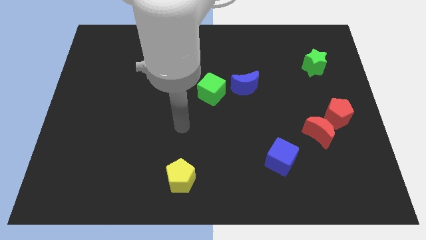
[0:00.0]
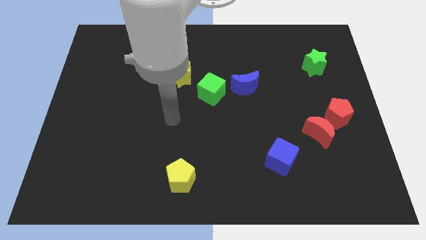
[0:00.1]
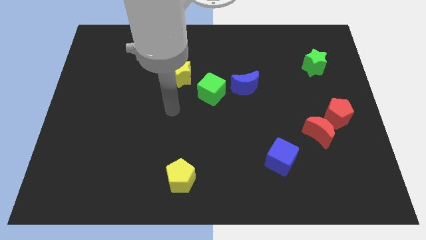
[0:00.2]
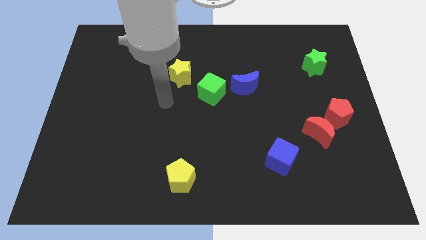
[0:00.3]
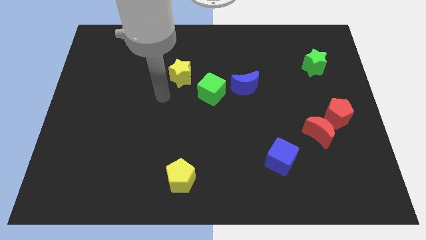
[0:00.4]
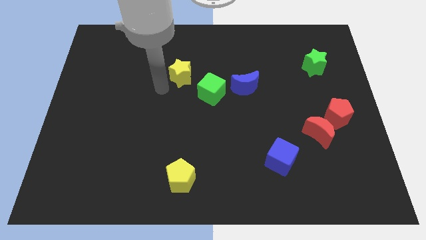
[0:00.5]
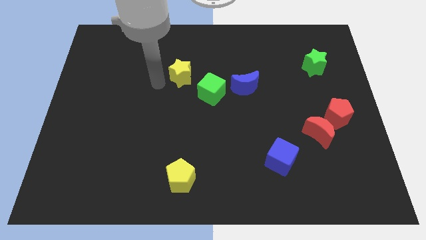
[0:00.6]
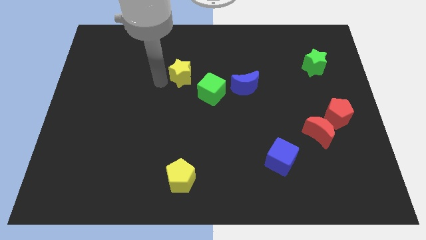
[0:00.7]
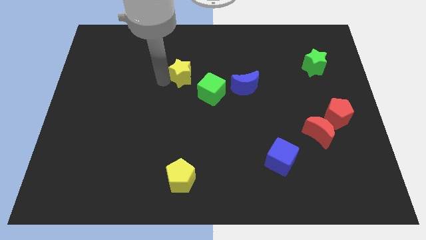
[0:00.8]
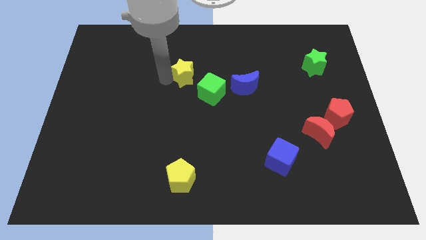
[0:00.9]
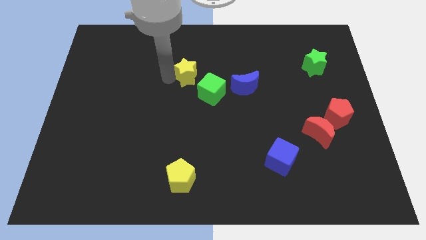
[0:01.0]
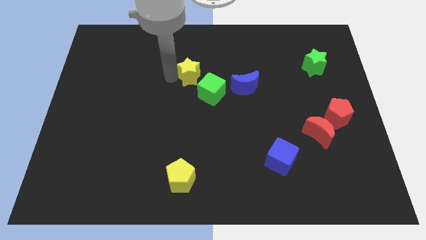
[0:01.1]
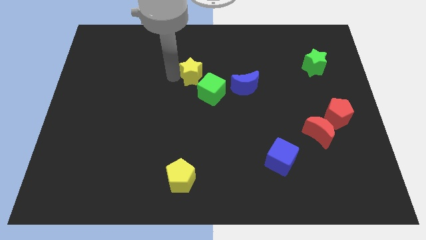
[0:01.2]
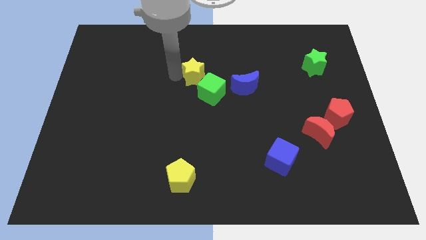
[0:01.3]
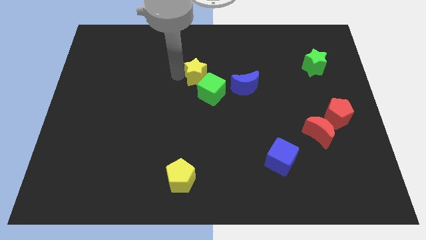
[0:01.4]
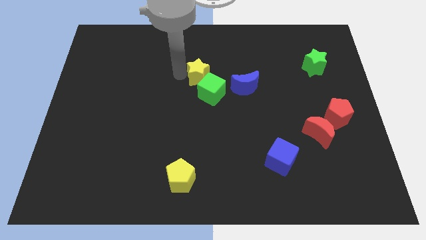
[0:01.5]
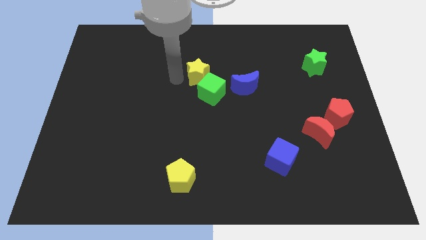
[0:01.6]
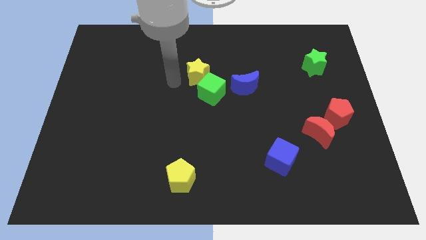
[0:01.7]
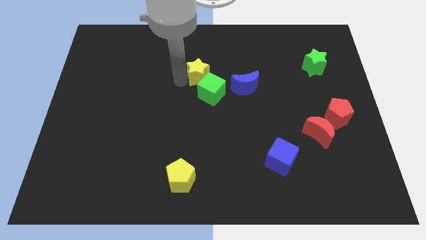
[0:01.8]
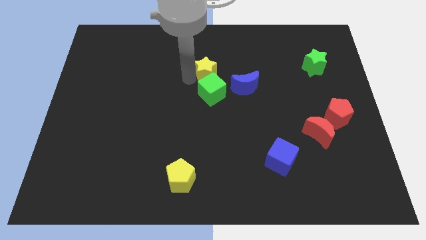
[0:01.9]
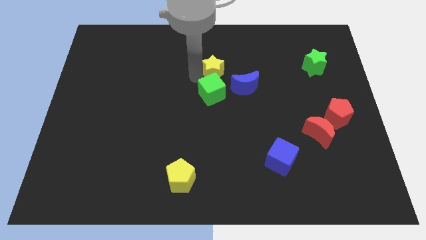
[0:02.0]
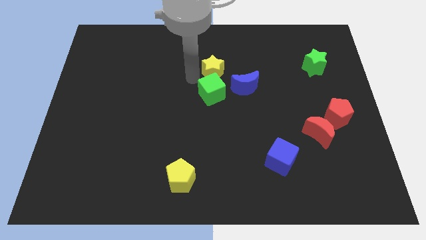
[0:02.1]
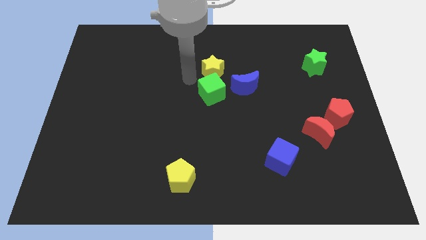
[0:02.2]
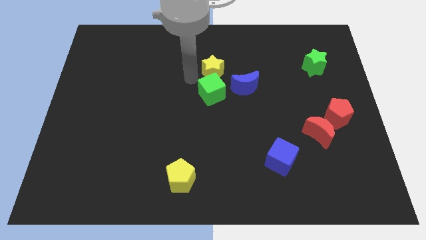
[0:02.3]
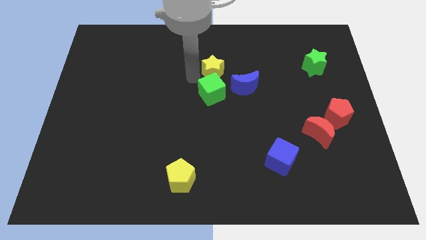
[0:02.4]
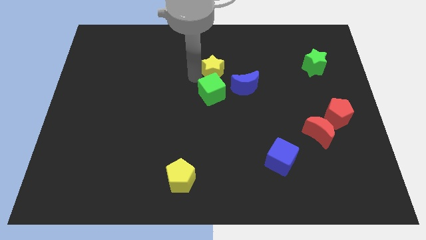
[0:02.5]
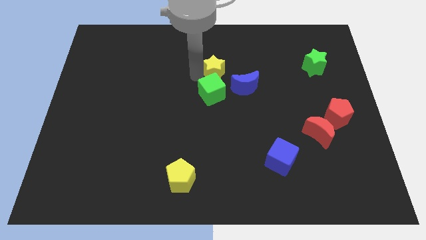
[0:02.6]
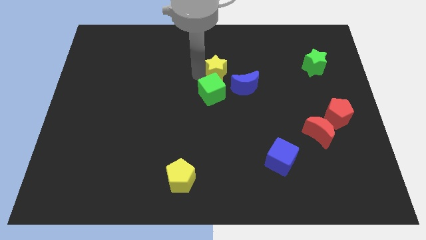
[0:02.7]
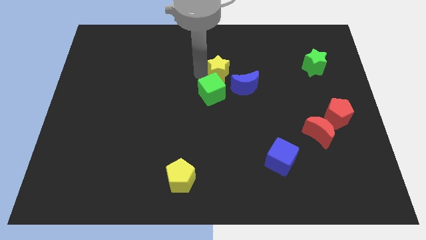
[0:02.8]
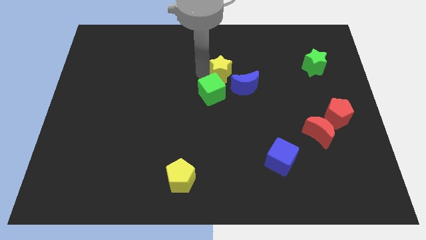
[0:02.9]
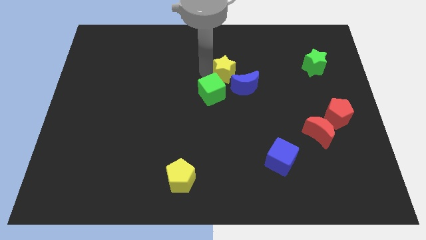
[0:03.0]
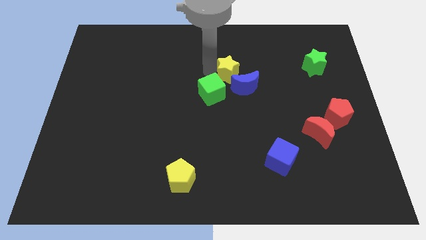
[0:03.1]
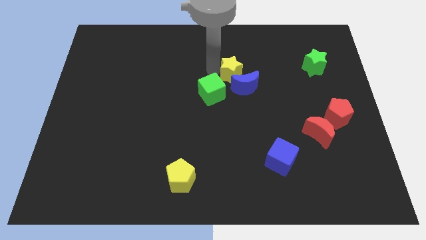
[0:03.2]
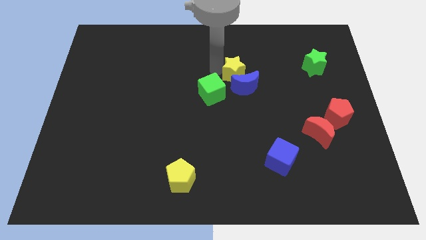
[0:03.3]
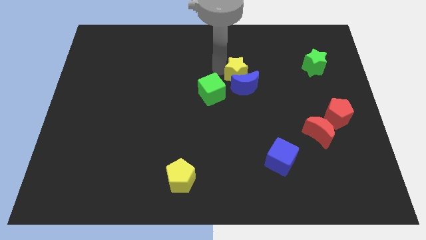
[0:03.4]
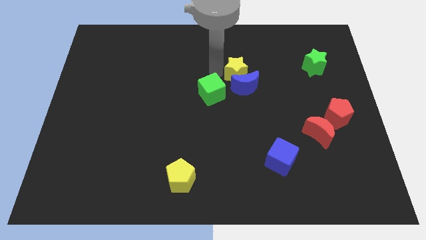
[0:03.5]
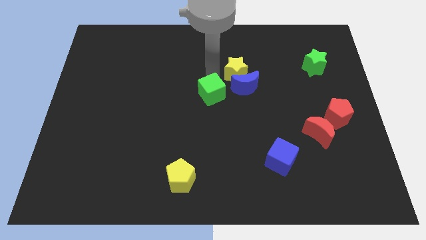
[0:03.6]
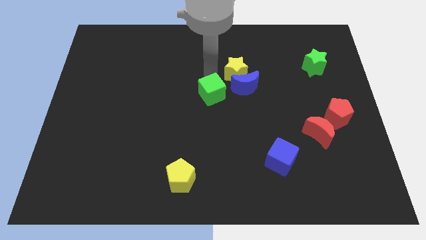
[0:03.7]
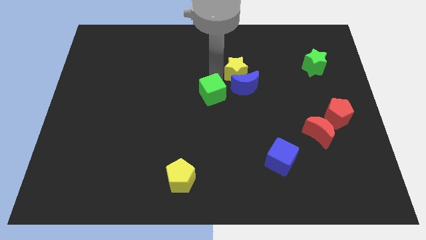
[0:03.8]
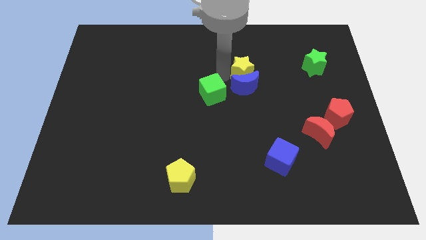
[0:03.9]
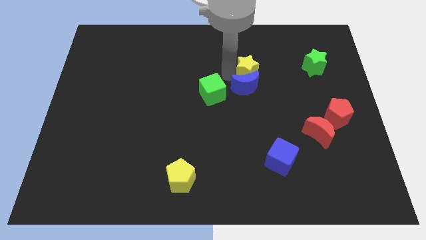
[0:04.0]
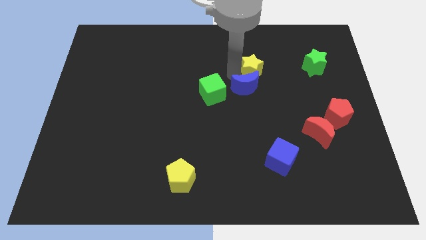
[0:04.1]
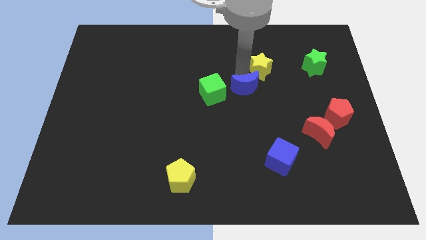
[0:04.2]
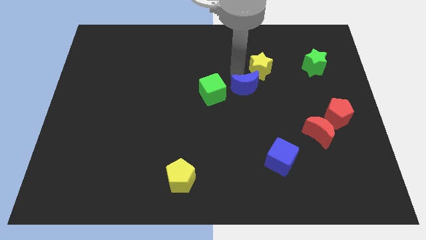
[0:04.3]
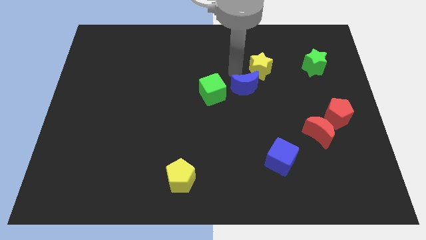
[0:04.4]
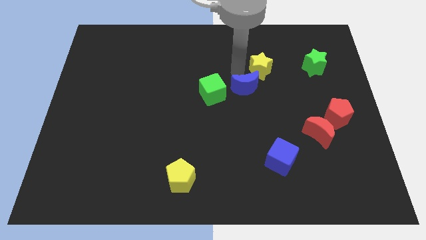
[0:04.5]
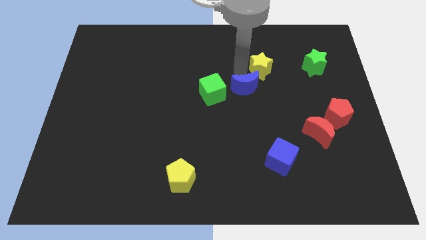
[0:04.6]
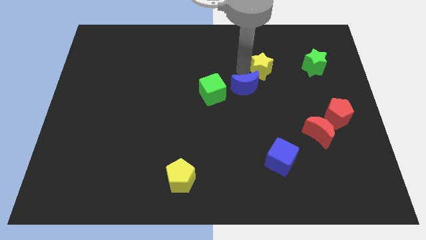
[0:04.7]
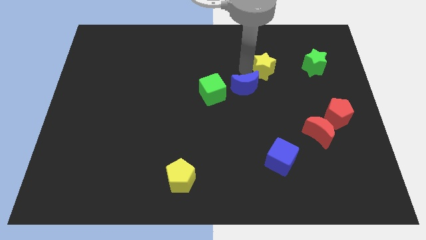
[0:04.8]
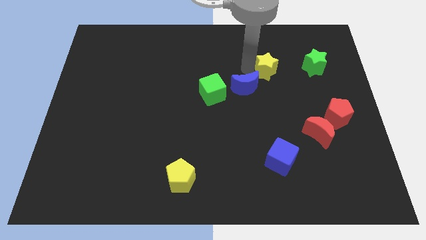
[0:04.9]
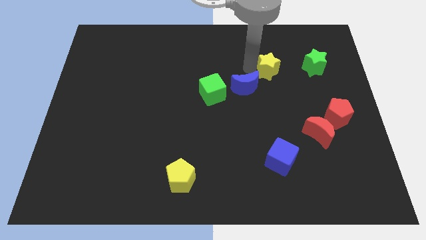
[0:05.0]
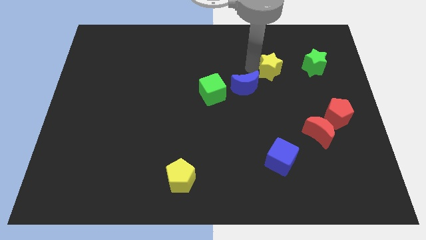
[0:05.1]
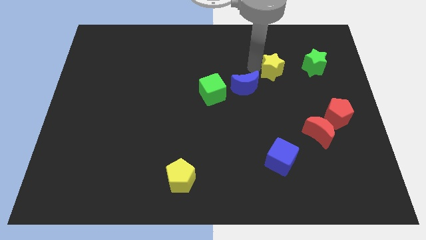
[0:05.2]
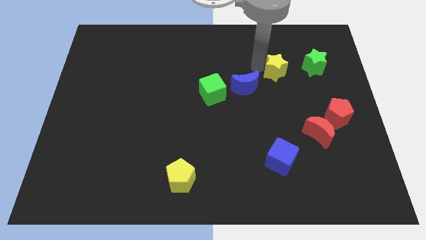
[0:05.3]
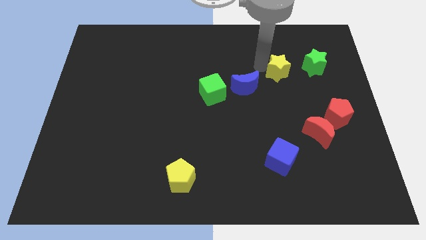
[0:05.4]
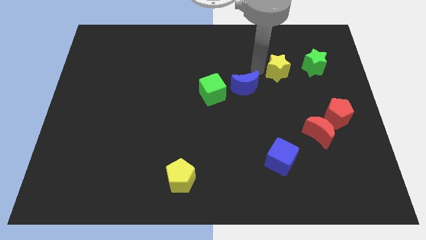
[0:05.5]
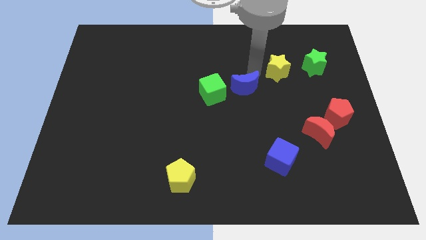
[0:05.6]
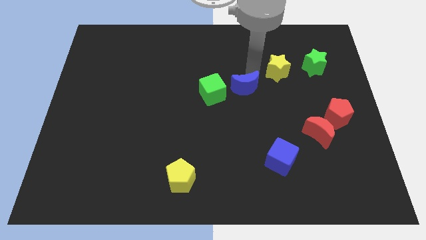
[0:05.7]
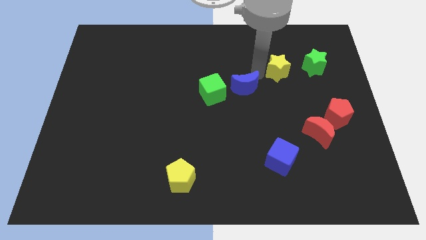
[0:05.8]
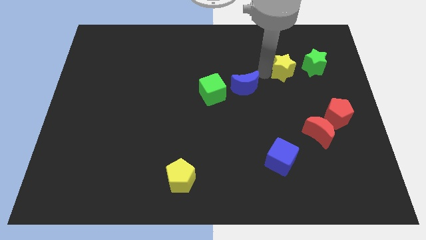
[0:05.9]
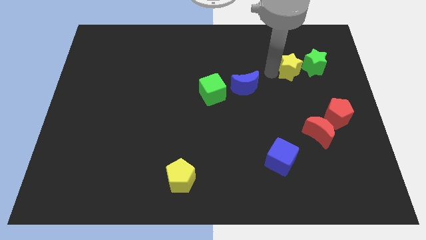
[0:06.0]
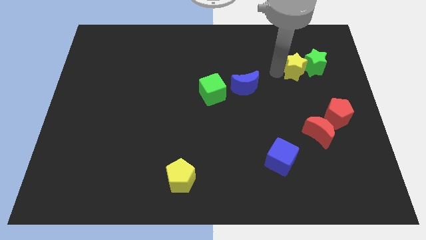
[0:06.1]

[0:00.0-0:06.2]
put the yellow star towards the green star

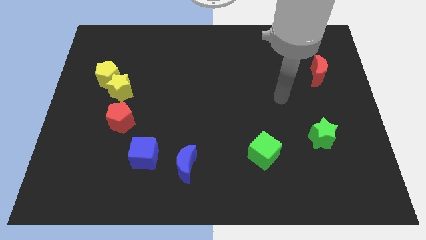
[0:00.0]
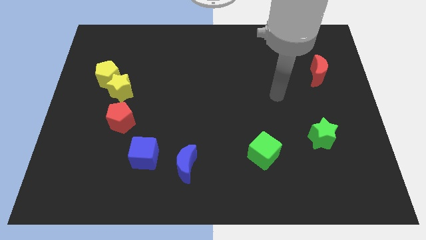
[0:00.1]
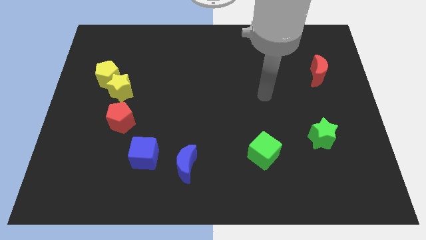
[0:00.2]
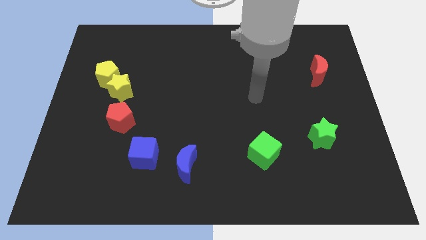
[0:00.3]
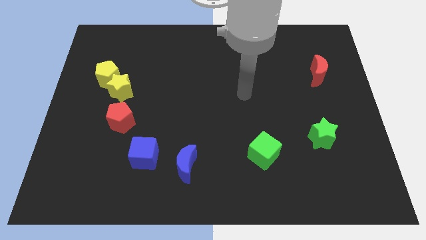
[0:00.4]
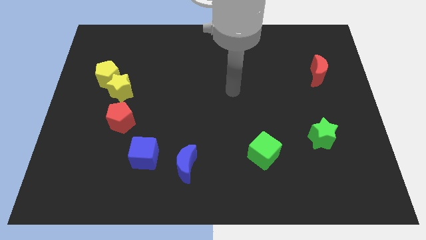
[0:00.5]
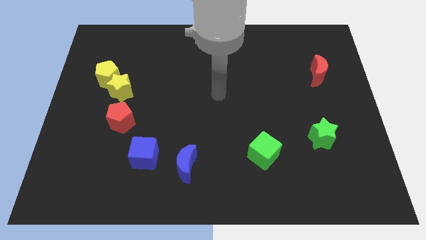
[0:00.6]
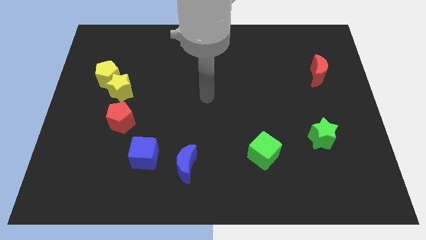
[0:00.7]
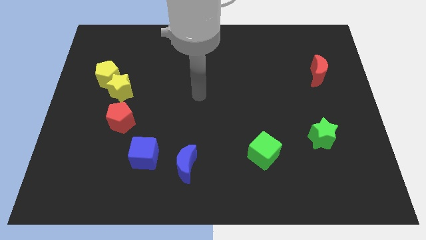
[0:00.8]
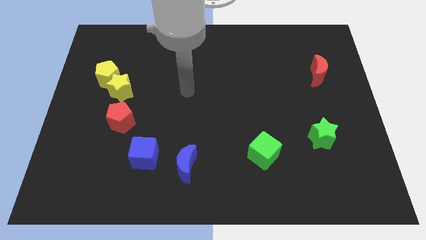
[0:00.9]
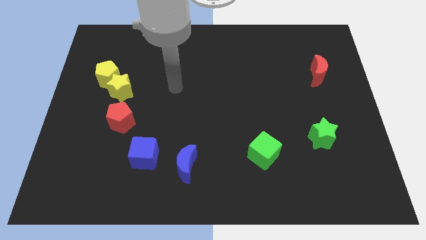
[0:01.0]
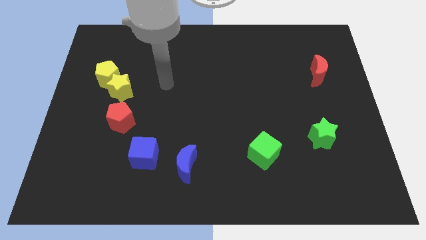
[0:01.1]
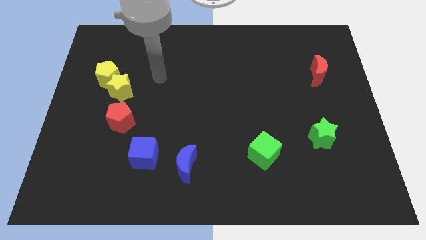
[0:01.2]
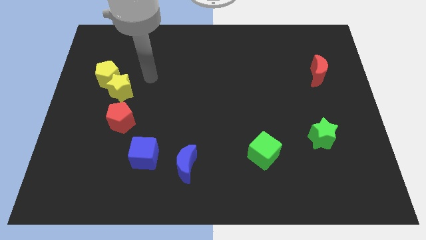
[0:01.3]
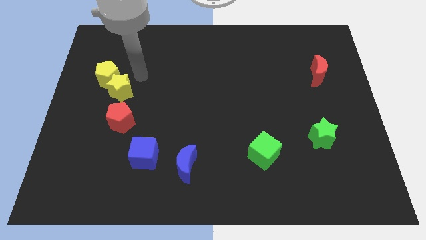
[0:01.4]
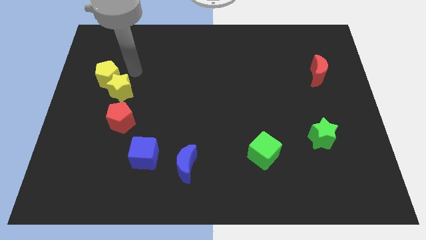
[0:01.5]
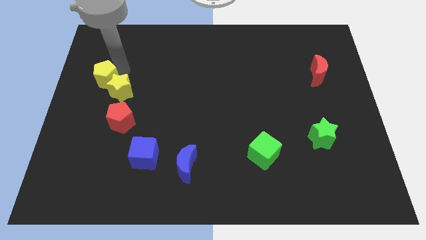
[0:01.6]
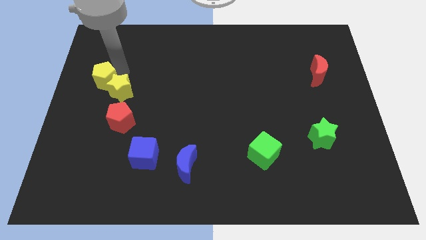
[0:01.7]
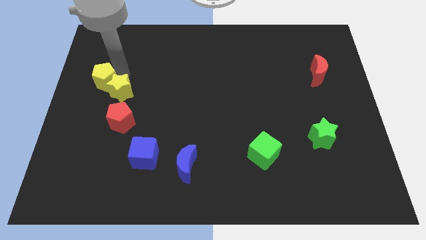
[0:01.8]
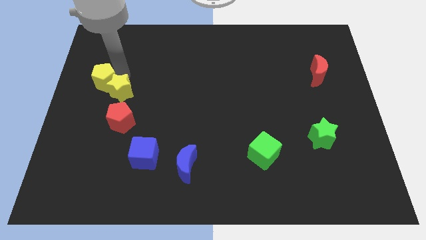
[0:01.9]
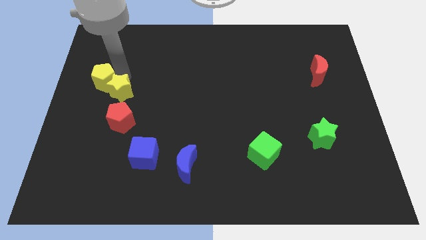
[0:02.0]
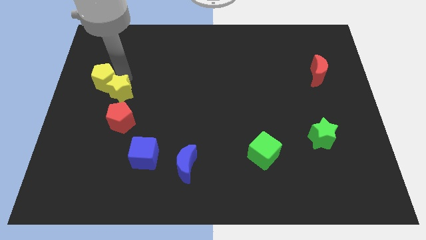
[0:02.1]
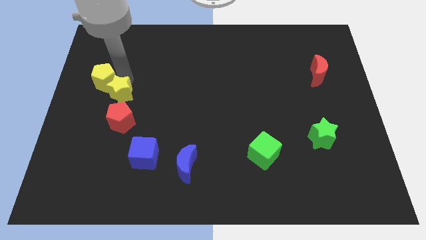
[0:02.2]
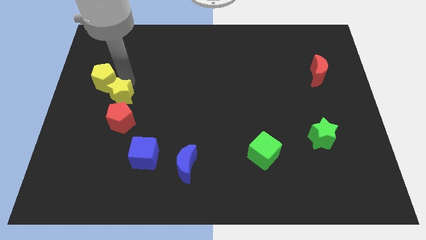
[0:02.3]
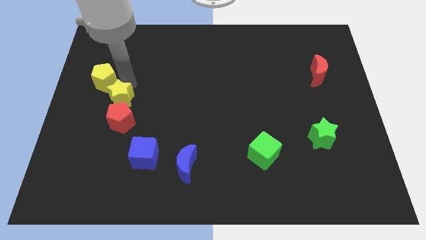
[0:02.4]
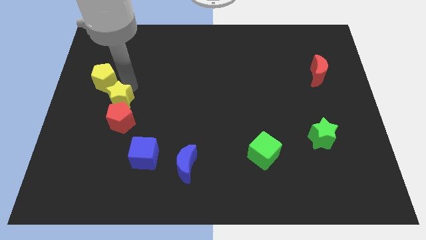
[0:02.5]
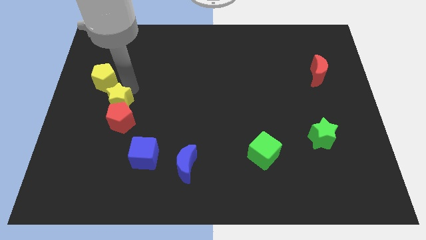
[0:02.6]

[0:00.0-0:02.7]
put the yellow star towards the red pentagon
